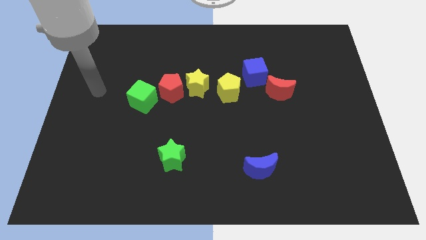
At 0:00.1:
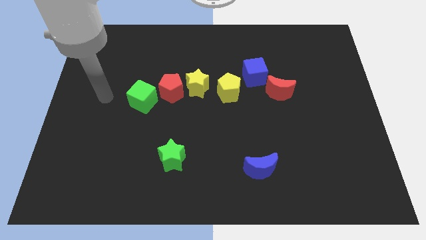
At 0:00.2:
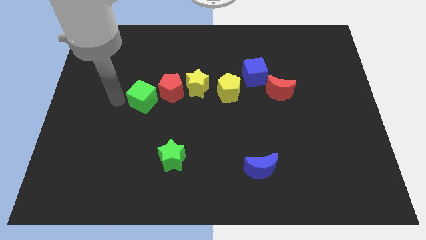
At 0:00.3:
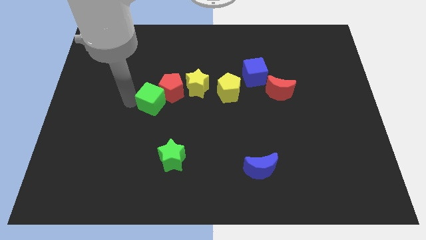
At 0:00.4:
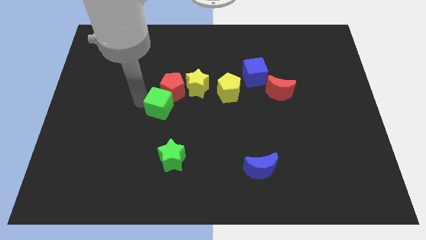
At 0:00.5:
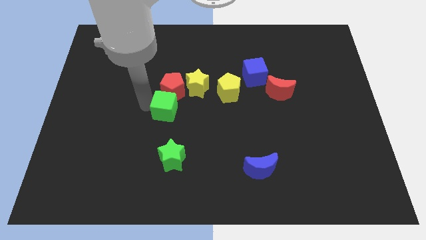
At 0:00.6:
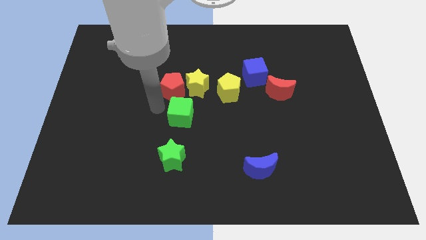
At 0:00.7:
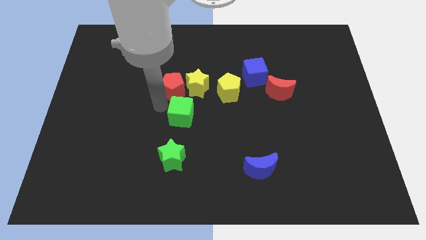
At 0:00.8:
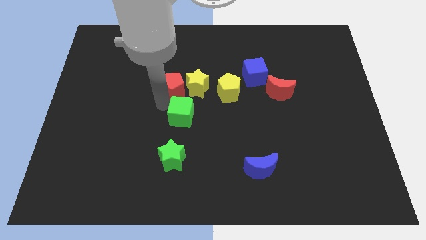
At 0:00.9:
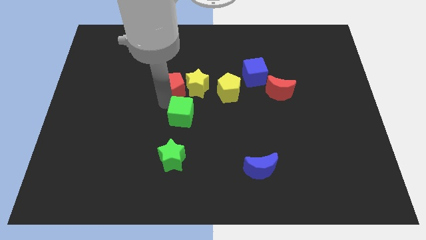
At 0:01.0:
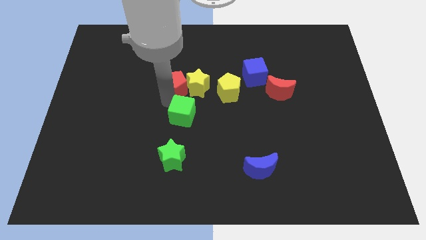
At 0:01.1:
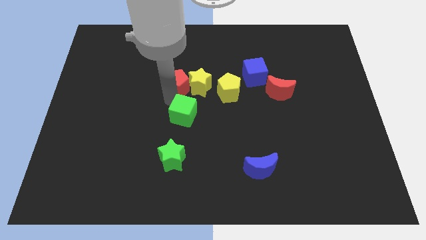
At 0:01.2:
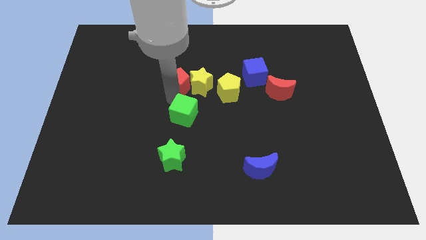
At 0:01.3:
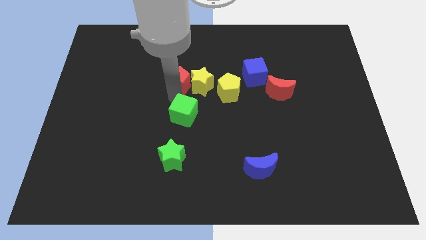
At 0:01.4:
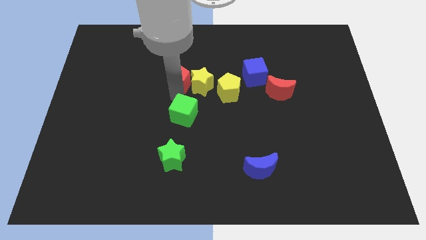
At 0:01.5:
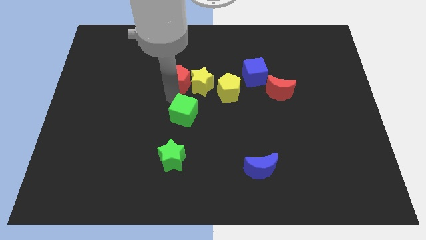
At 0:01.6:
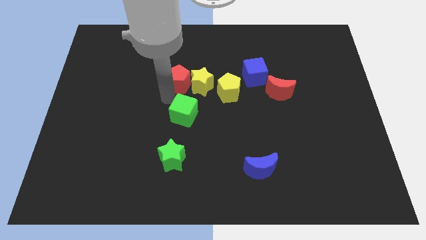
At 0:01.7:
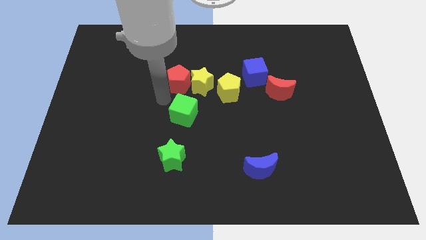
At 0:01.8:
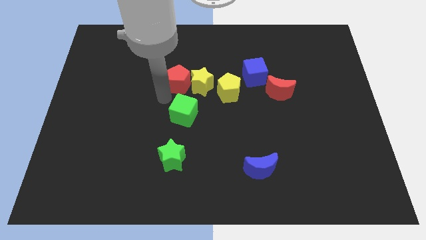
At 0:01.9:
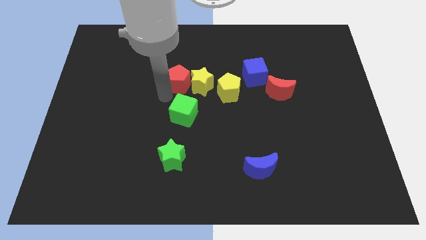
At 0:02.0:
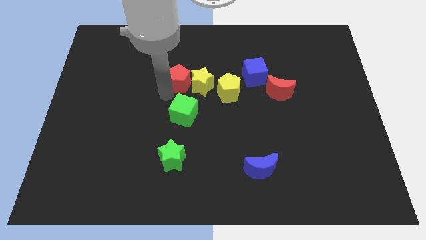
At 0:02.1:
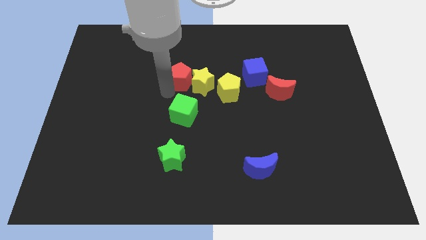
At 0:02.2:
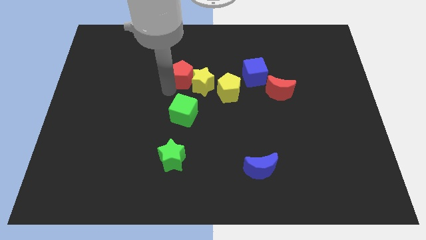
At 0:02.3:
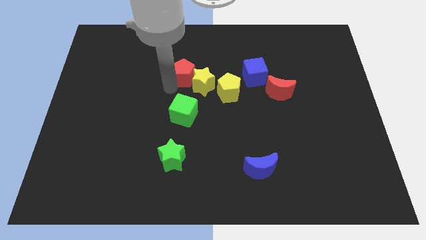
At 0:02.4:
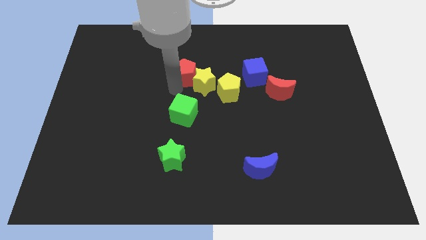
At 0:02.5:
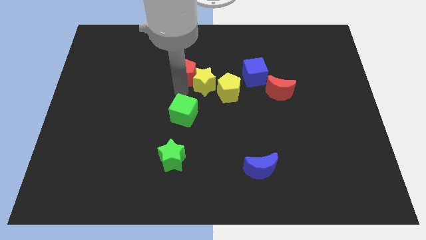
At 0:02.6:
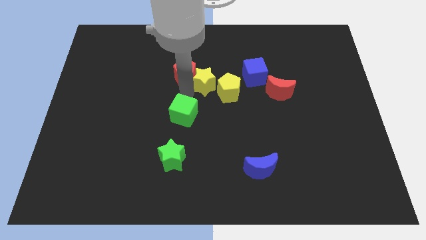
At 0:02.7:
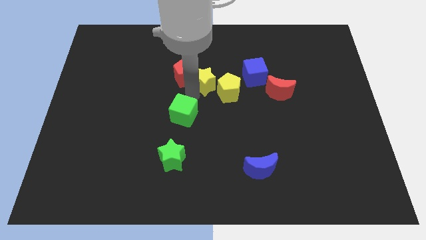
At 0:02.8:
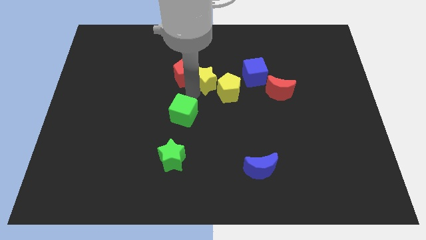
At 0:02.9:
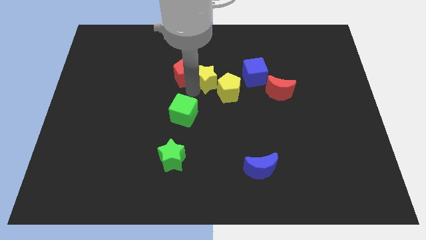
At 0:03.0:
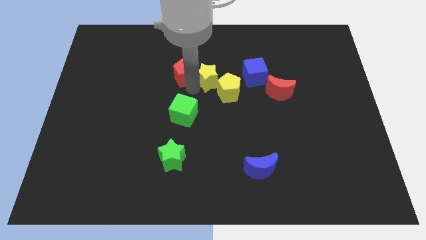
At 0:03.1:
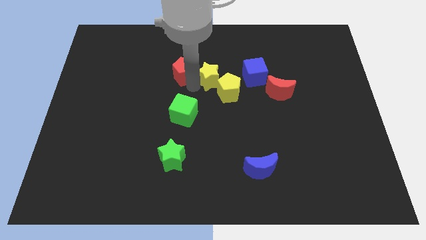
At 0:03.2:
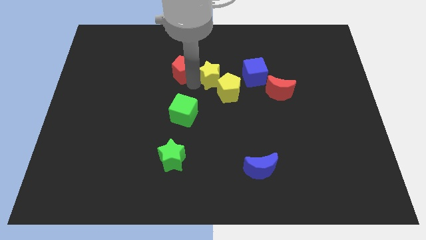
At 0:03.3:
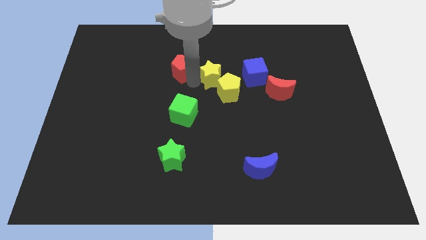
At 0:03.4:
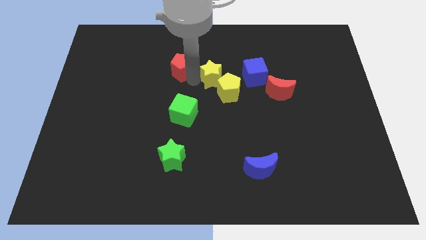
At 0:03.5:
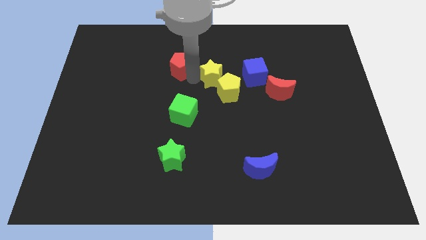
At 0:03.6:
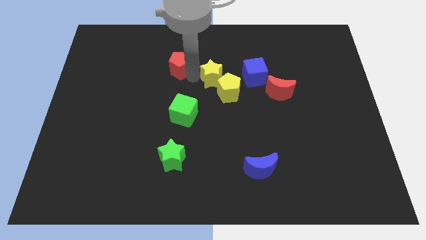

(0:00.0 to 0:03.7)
separate the red pentagon from the yellow star and green cube

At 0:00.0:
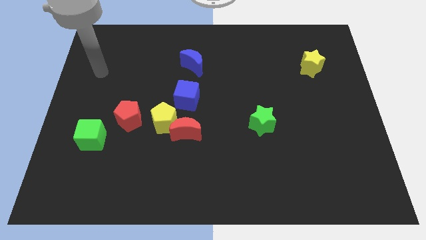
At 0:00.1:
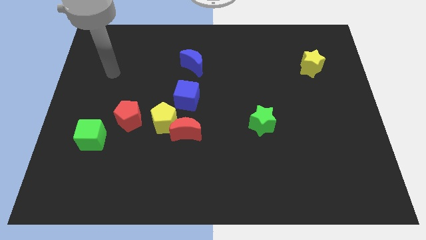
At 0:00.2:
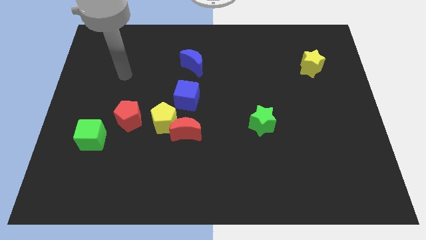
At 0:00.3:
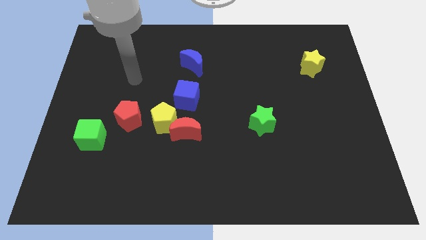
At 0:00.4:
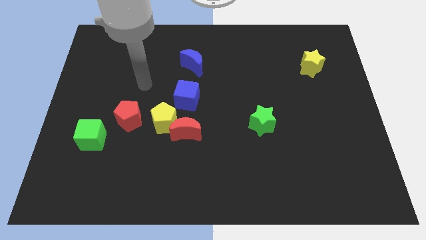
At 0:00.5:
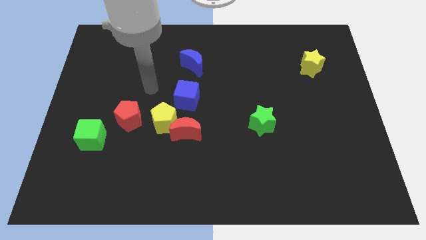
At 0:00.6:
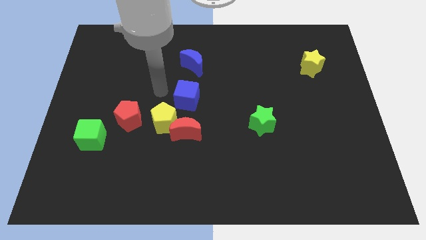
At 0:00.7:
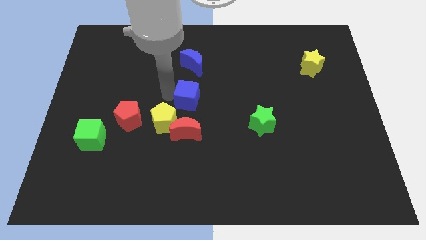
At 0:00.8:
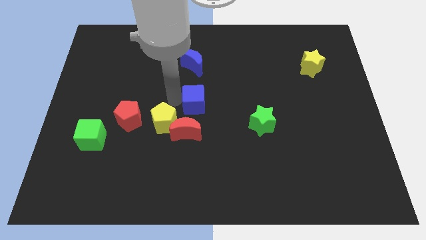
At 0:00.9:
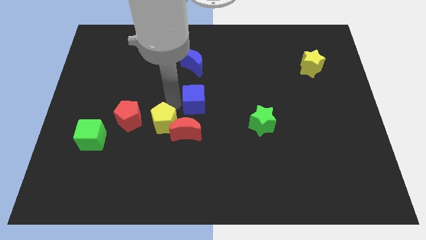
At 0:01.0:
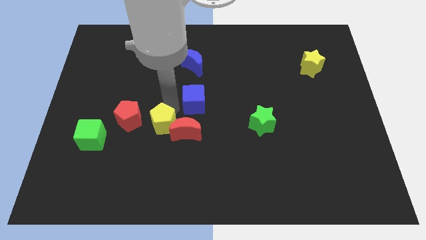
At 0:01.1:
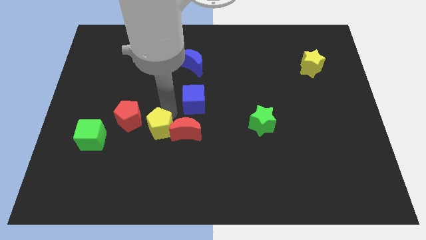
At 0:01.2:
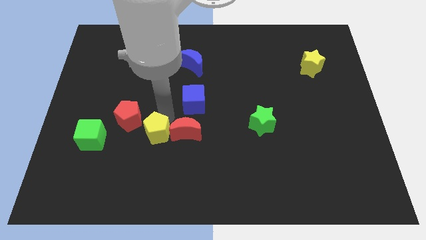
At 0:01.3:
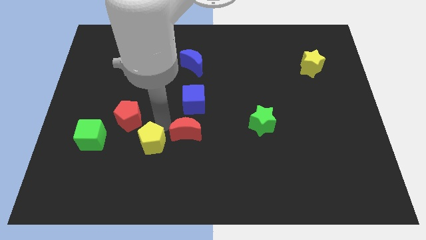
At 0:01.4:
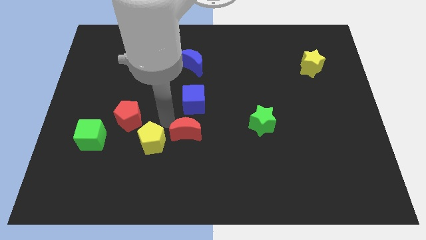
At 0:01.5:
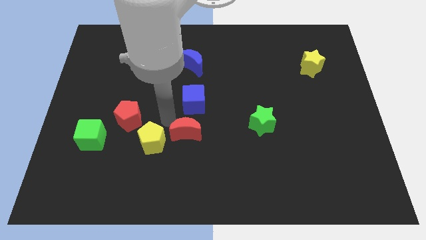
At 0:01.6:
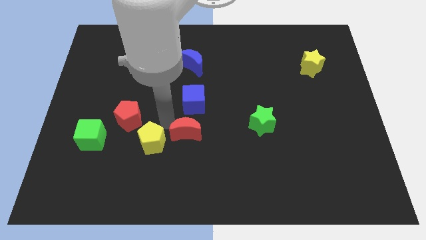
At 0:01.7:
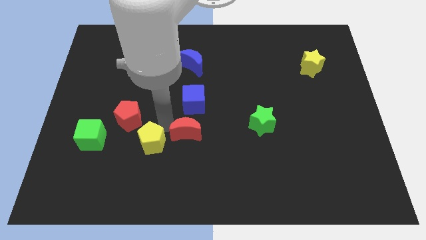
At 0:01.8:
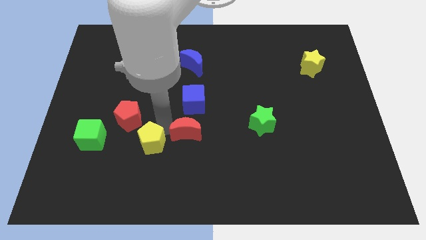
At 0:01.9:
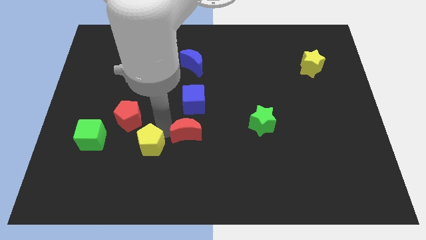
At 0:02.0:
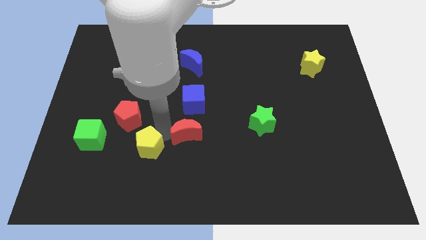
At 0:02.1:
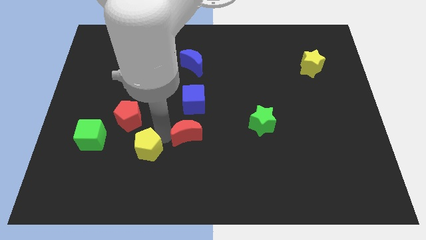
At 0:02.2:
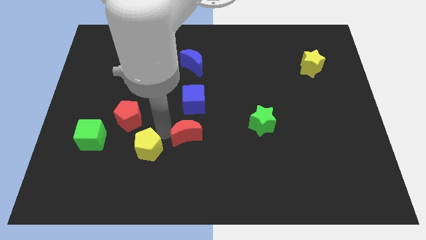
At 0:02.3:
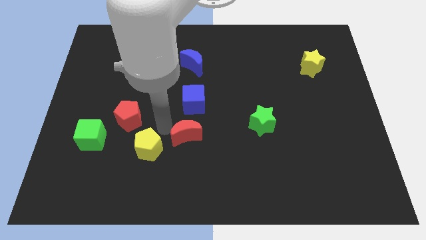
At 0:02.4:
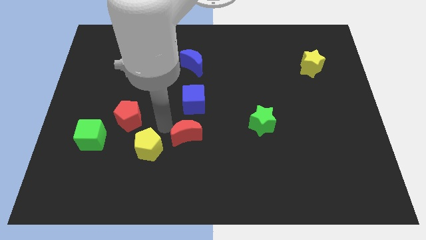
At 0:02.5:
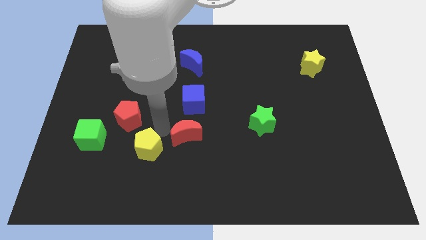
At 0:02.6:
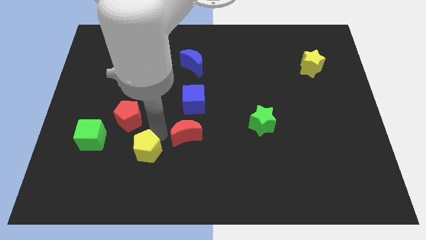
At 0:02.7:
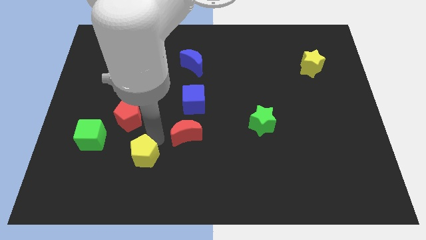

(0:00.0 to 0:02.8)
move the yellow pentagon away from the red moon, blue cube, and red pentagon

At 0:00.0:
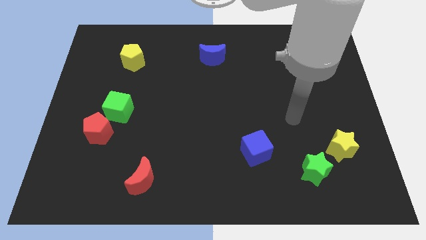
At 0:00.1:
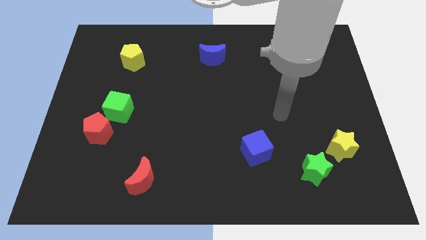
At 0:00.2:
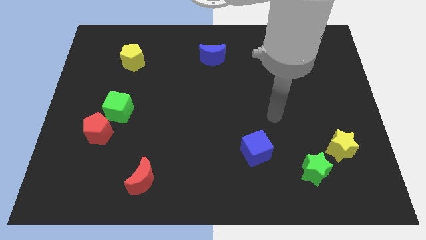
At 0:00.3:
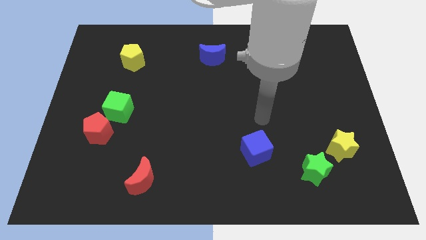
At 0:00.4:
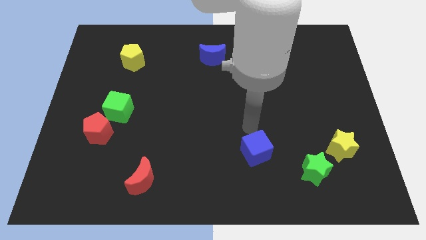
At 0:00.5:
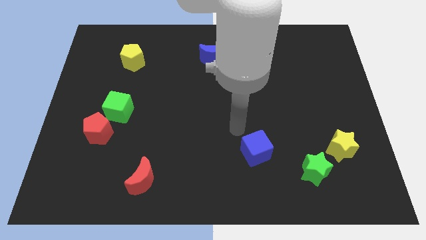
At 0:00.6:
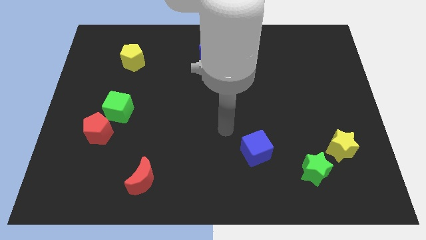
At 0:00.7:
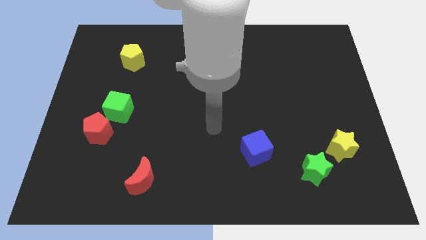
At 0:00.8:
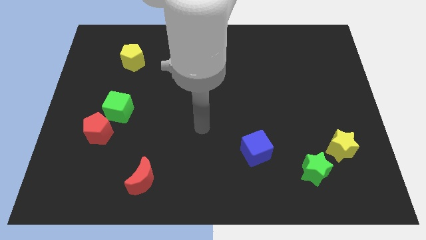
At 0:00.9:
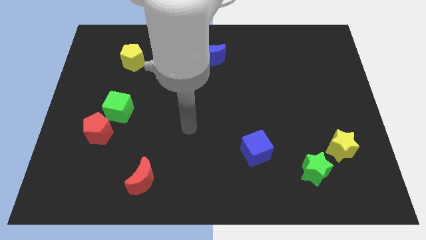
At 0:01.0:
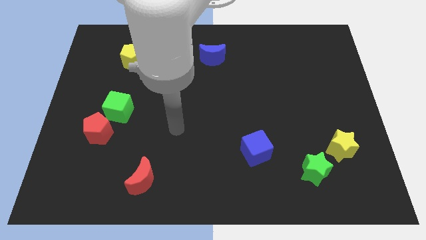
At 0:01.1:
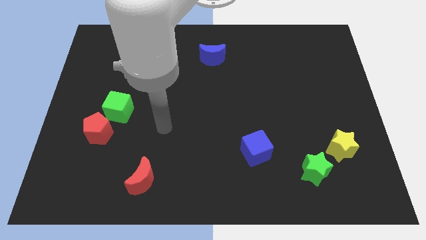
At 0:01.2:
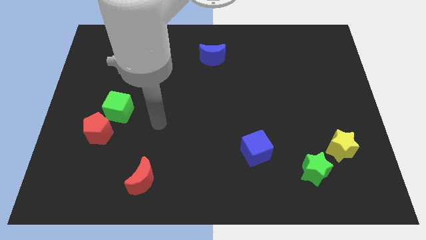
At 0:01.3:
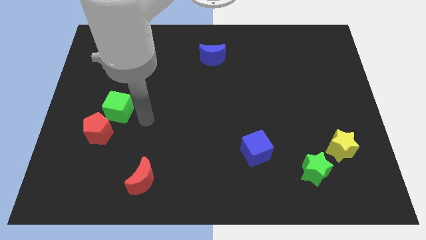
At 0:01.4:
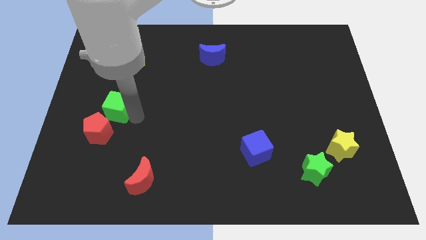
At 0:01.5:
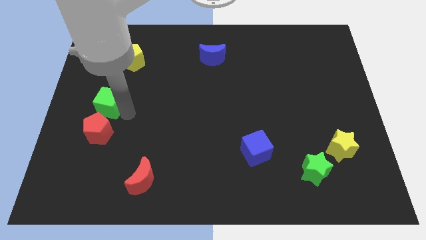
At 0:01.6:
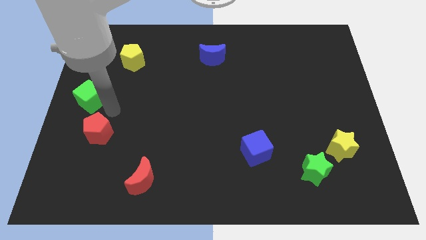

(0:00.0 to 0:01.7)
move the red pentagon away from the green cube

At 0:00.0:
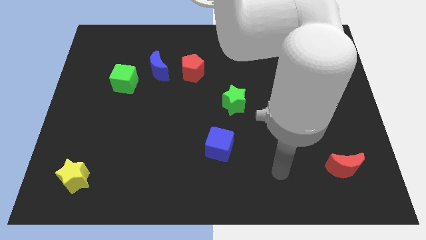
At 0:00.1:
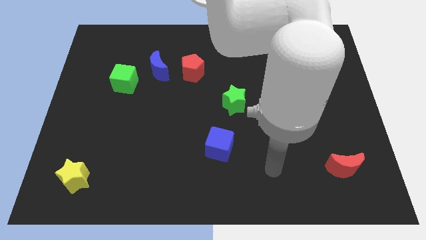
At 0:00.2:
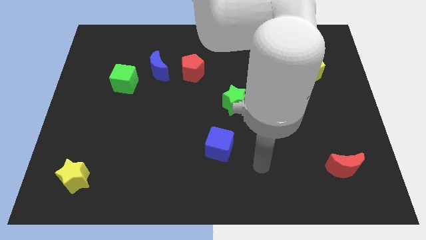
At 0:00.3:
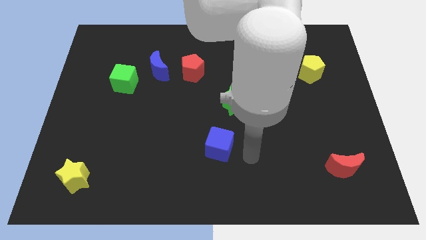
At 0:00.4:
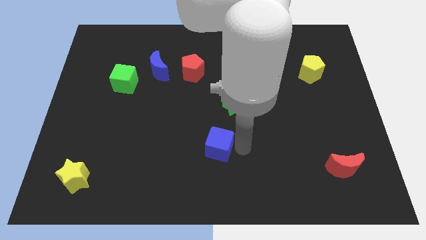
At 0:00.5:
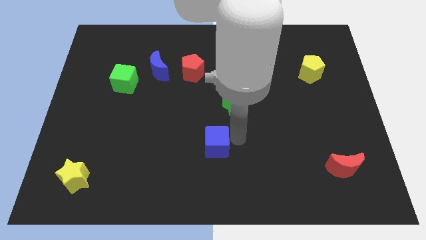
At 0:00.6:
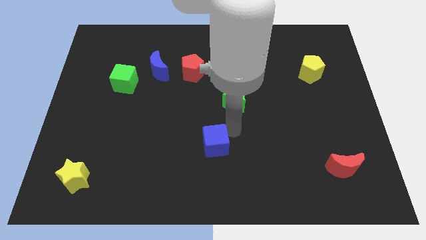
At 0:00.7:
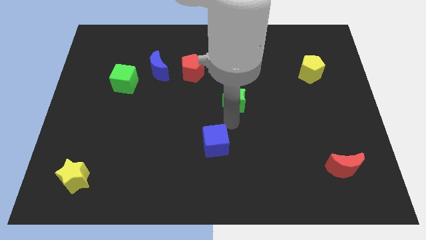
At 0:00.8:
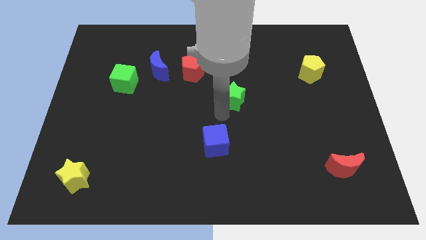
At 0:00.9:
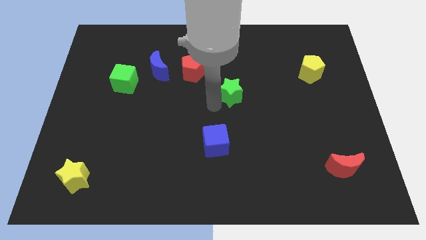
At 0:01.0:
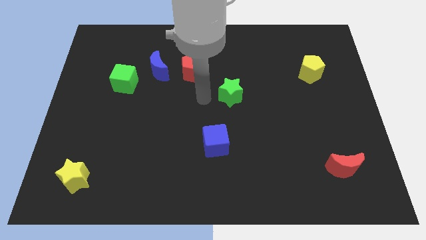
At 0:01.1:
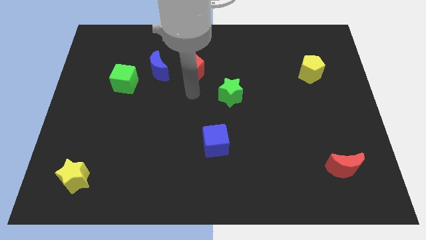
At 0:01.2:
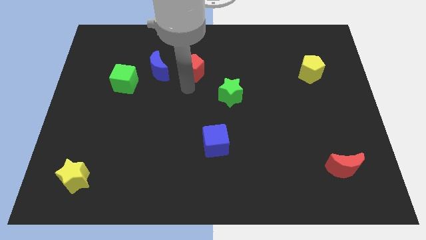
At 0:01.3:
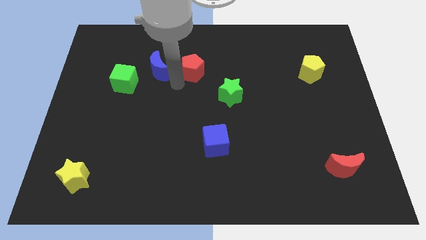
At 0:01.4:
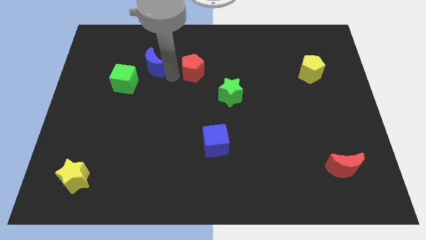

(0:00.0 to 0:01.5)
move the red pentagon away from the blue moon
